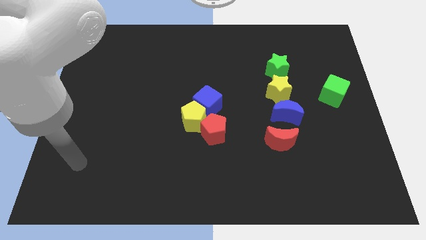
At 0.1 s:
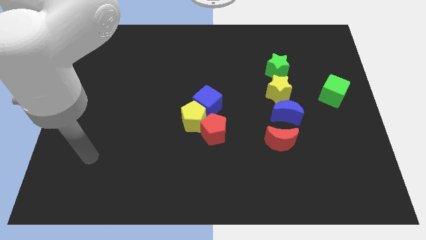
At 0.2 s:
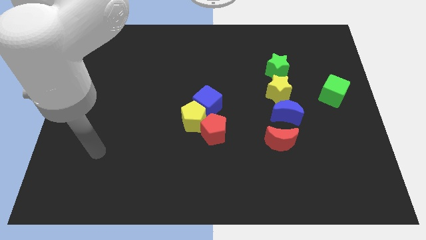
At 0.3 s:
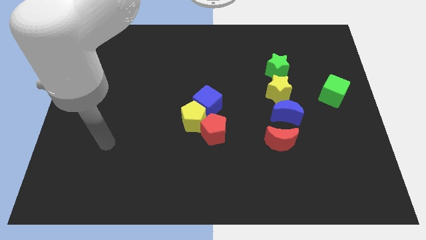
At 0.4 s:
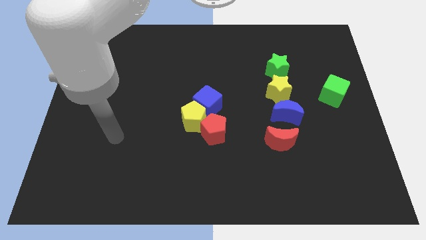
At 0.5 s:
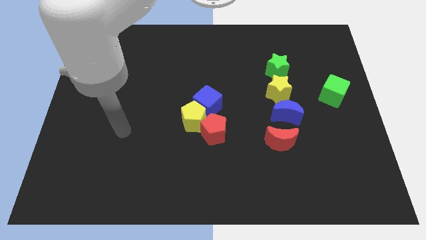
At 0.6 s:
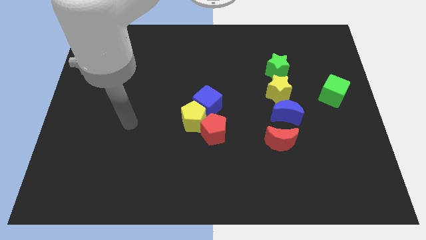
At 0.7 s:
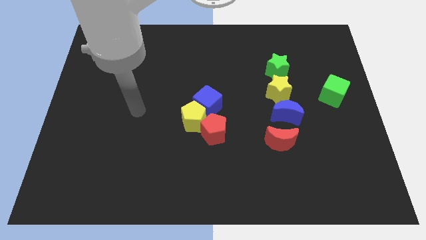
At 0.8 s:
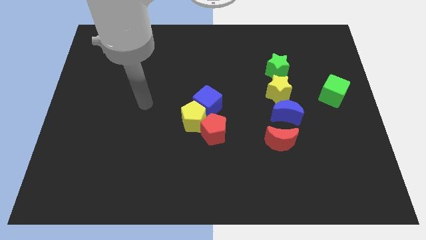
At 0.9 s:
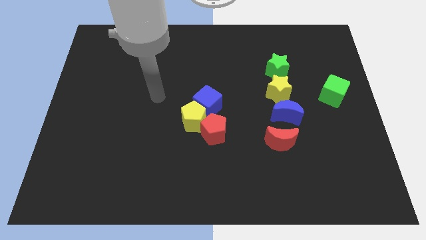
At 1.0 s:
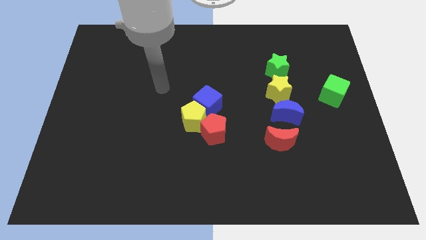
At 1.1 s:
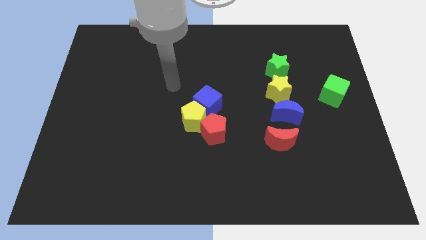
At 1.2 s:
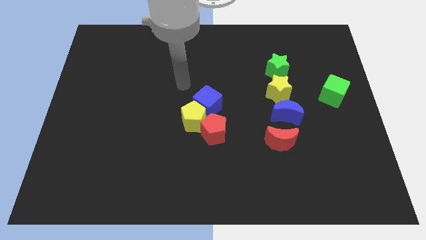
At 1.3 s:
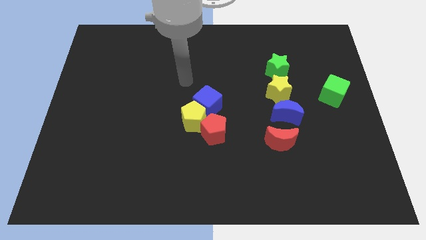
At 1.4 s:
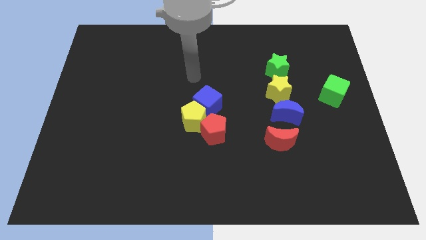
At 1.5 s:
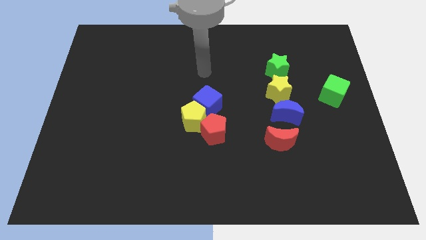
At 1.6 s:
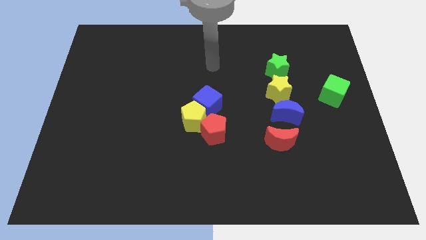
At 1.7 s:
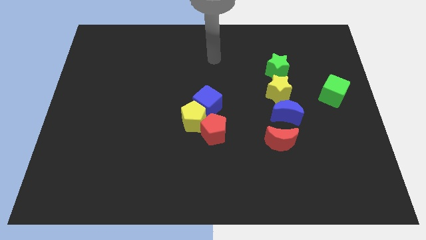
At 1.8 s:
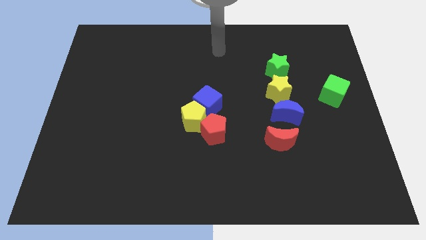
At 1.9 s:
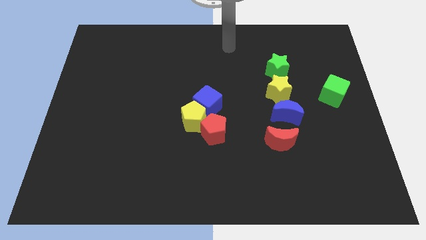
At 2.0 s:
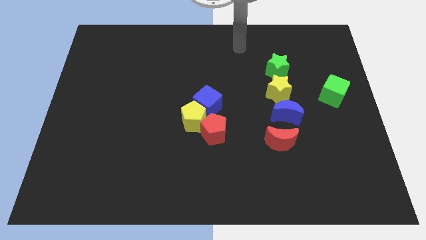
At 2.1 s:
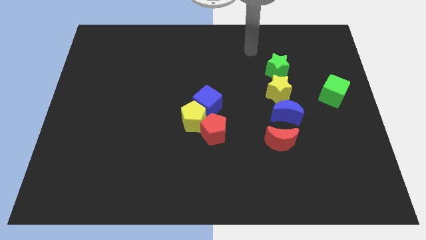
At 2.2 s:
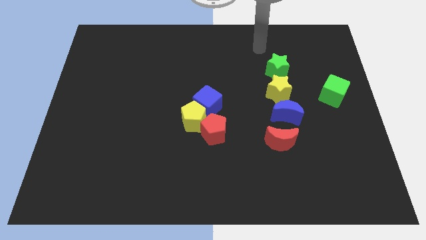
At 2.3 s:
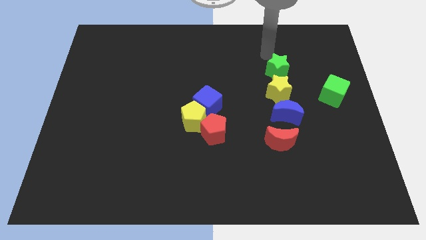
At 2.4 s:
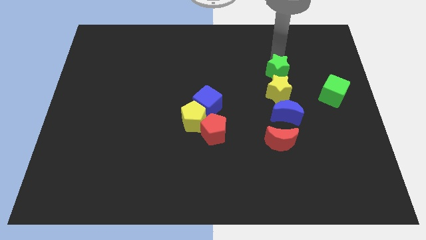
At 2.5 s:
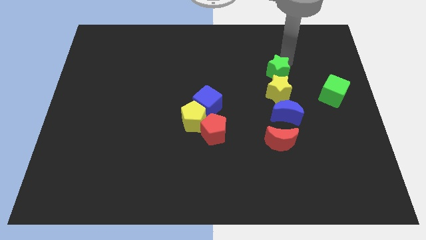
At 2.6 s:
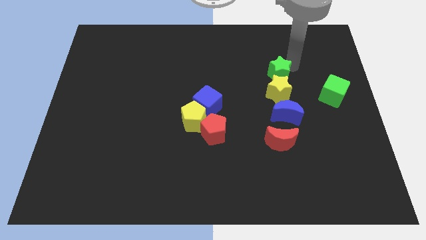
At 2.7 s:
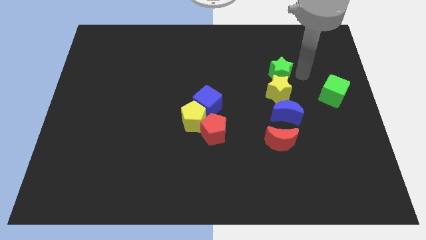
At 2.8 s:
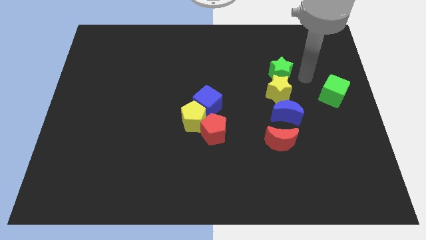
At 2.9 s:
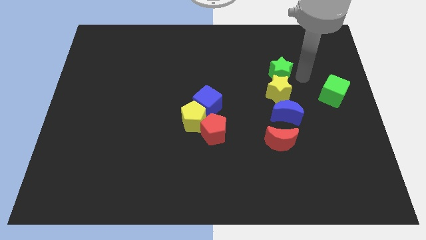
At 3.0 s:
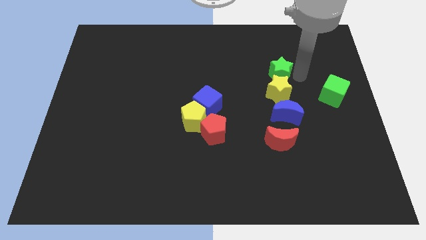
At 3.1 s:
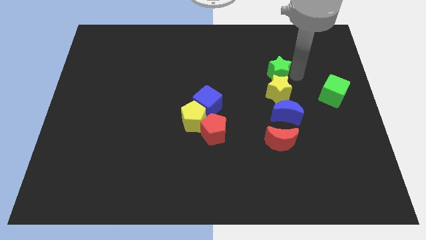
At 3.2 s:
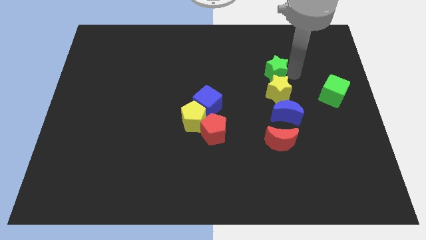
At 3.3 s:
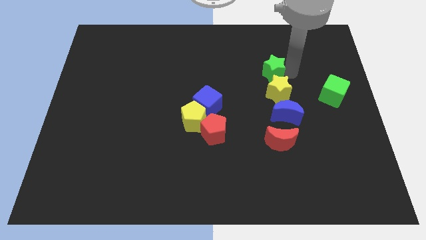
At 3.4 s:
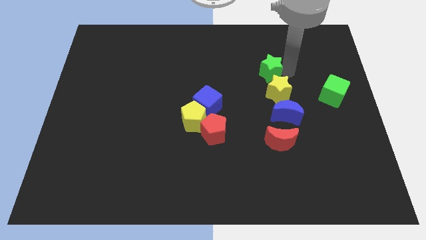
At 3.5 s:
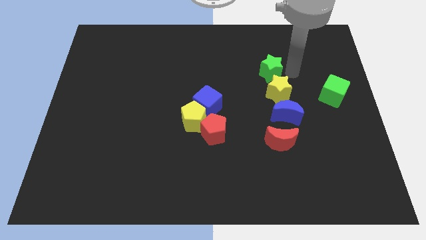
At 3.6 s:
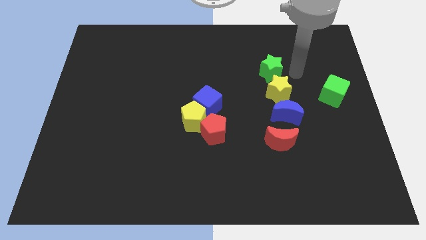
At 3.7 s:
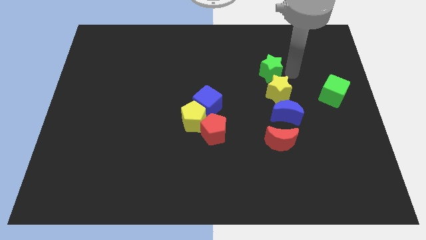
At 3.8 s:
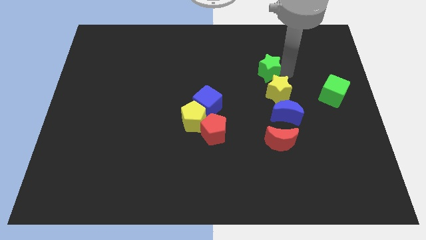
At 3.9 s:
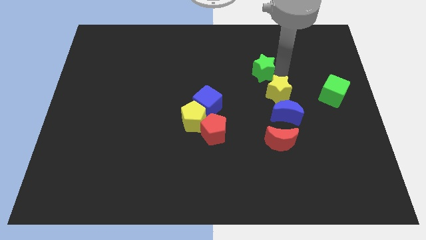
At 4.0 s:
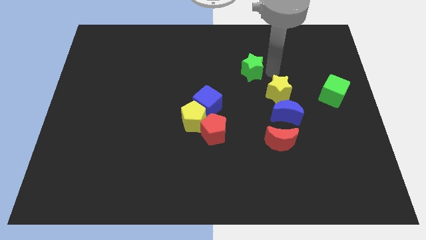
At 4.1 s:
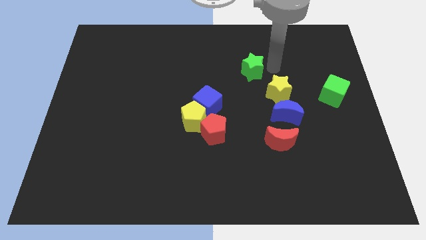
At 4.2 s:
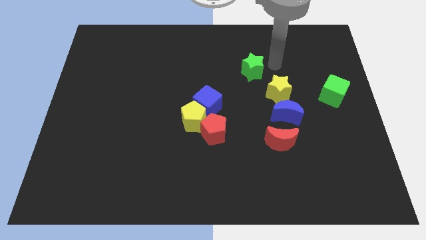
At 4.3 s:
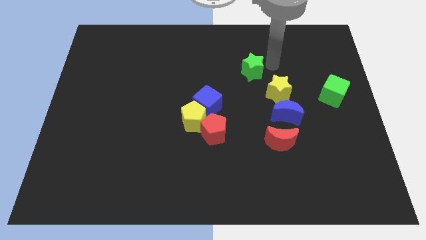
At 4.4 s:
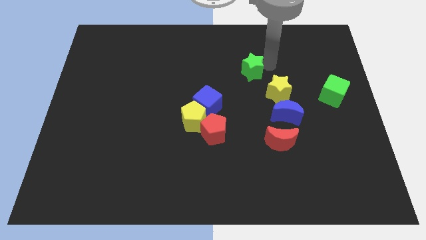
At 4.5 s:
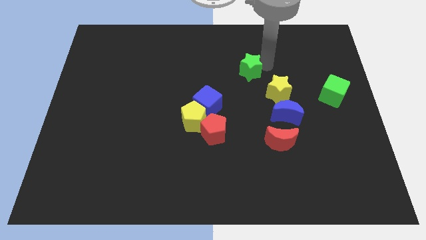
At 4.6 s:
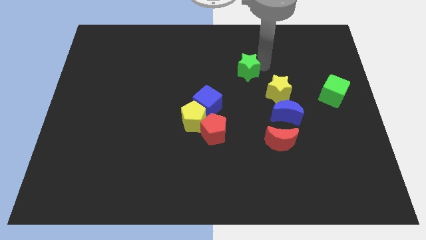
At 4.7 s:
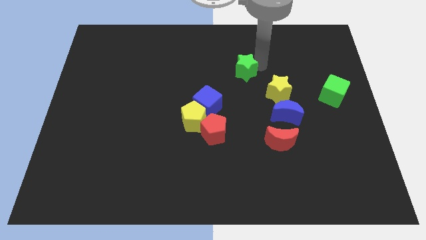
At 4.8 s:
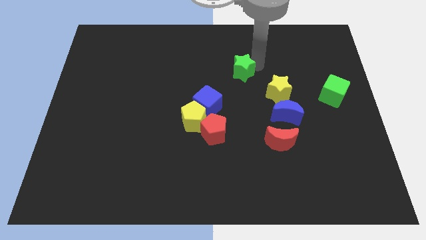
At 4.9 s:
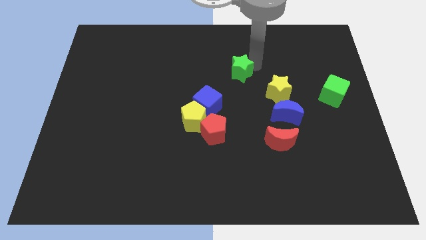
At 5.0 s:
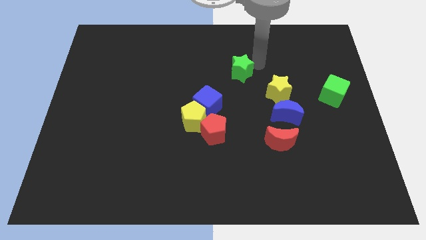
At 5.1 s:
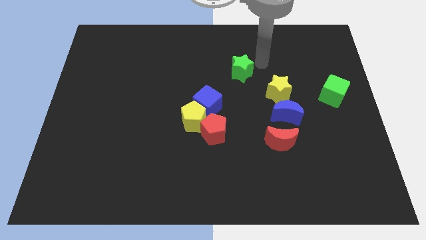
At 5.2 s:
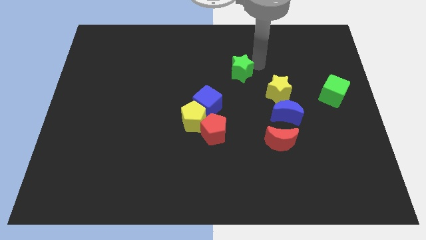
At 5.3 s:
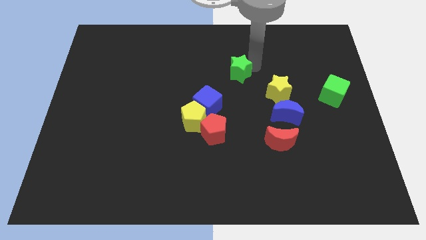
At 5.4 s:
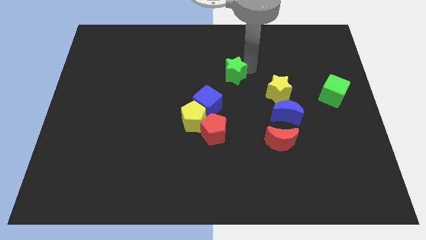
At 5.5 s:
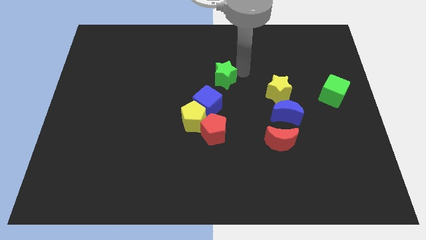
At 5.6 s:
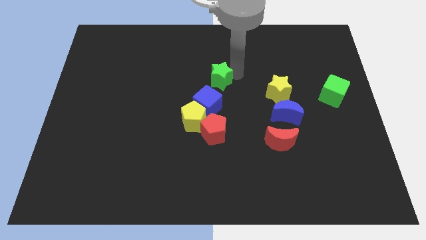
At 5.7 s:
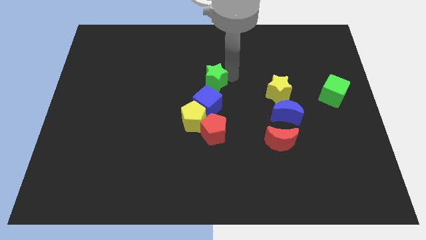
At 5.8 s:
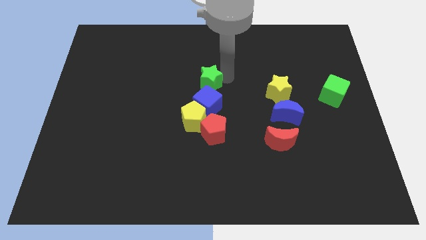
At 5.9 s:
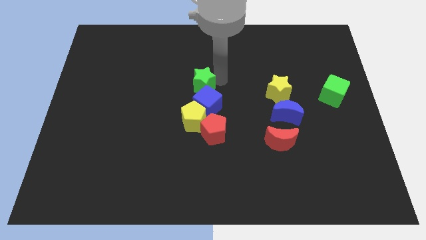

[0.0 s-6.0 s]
slide the green star to the top left of the blue cube
